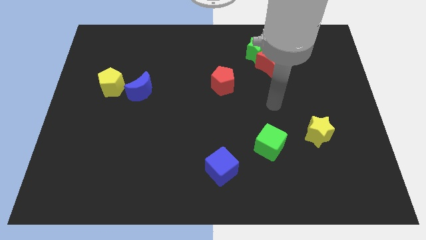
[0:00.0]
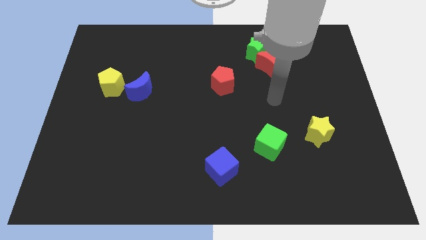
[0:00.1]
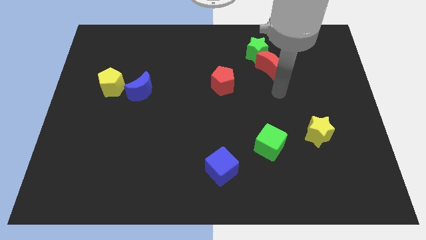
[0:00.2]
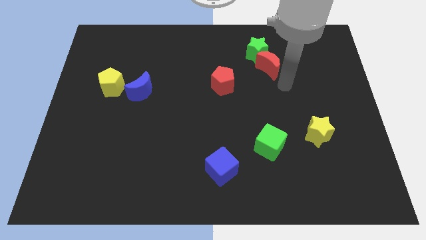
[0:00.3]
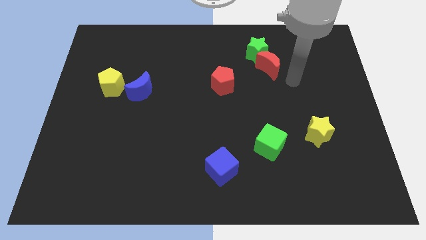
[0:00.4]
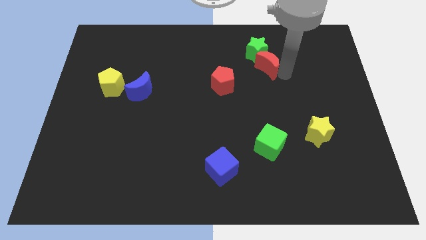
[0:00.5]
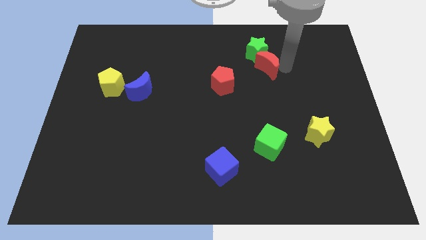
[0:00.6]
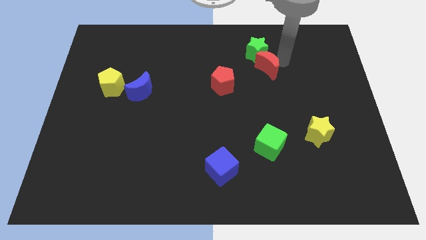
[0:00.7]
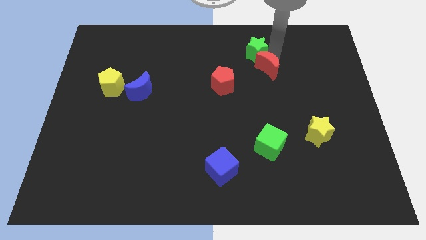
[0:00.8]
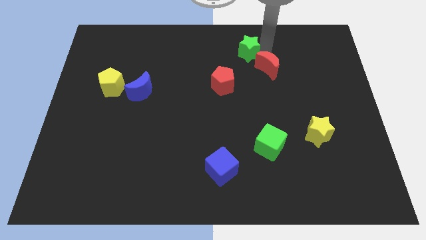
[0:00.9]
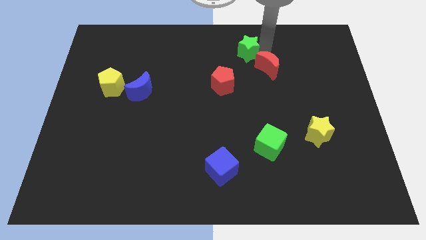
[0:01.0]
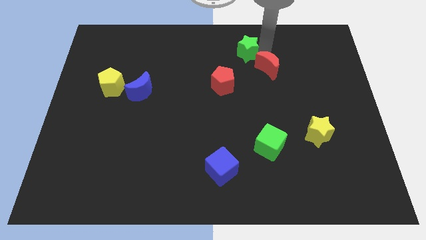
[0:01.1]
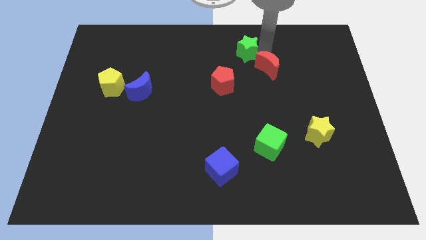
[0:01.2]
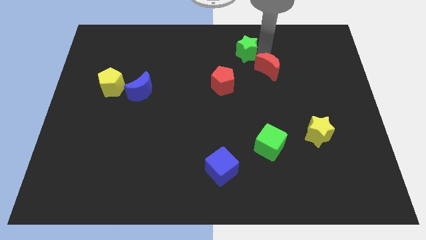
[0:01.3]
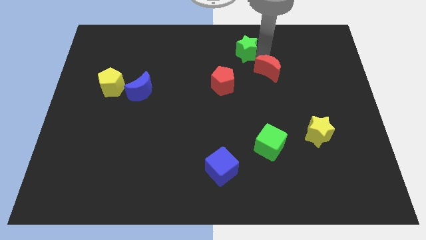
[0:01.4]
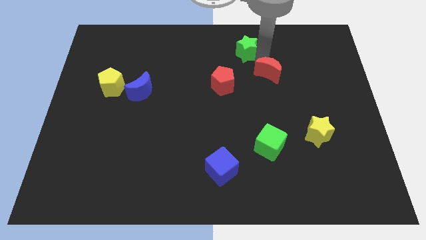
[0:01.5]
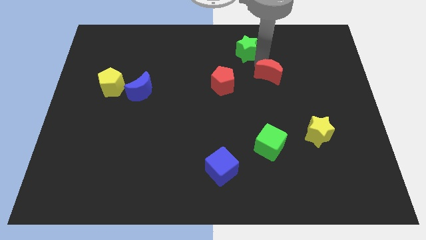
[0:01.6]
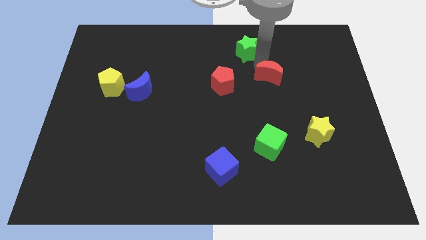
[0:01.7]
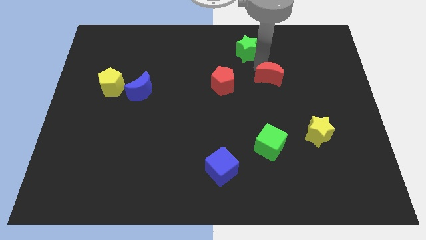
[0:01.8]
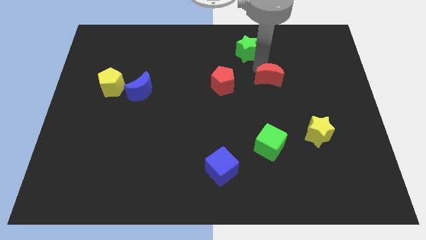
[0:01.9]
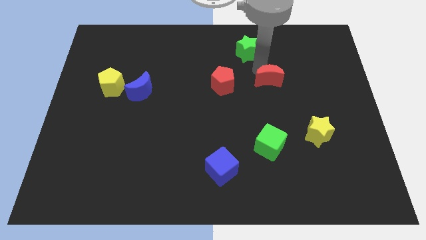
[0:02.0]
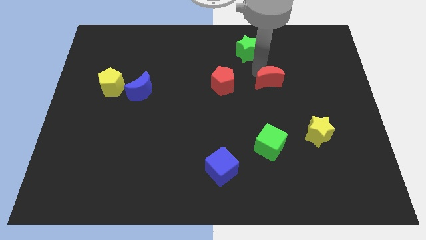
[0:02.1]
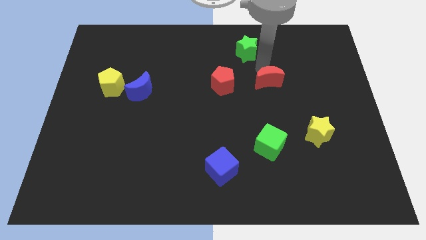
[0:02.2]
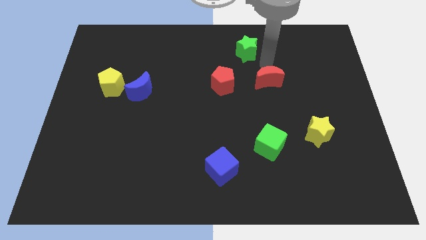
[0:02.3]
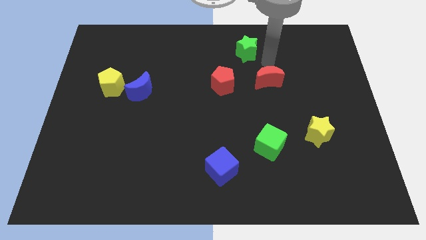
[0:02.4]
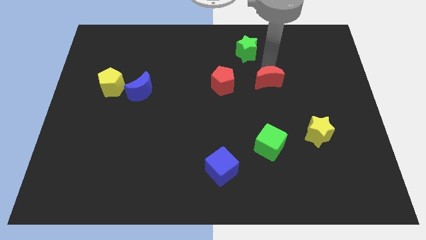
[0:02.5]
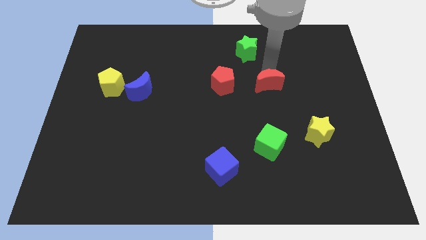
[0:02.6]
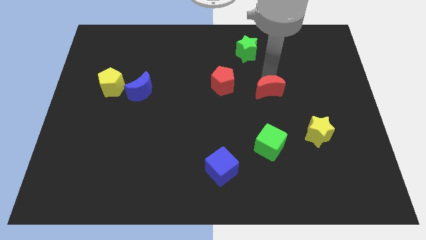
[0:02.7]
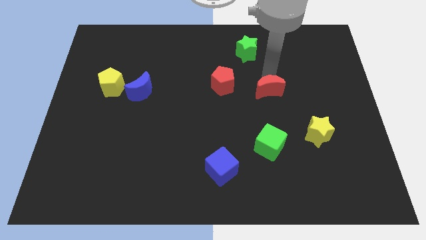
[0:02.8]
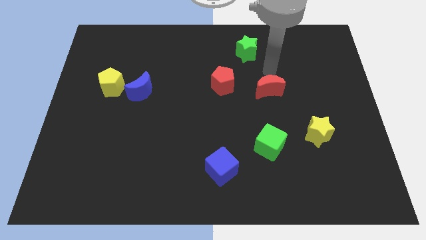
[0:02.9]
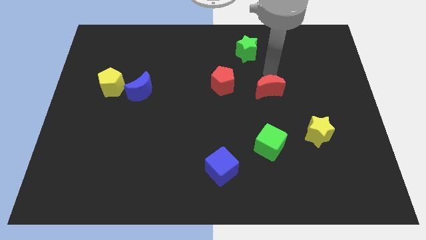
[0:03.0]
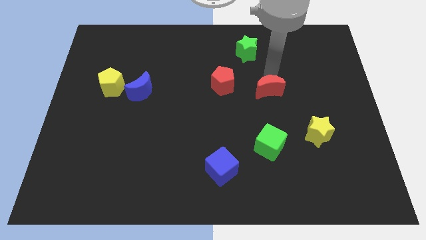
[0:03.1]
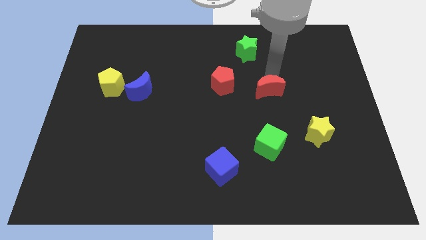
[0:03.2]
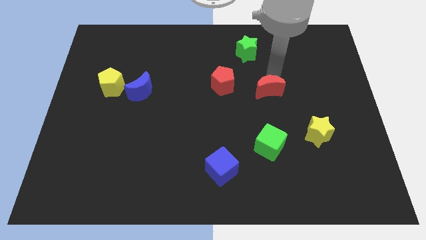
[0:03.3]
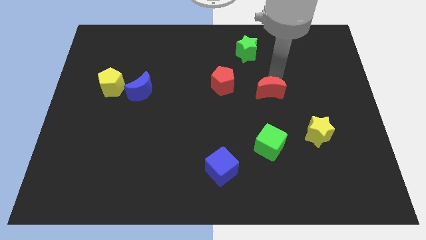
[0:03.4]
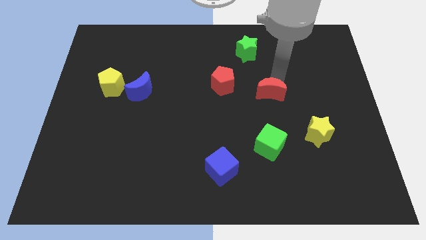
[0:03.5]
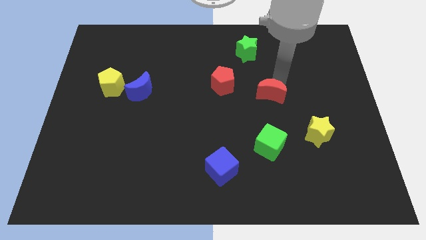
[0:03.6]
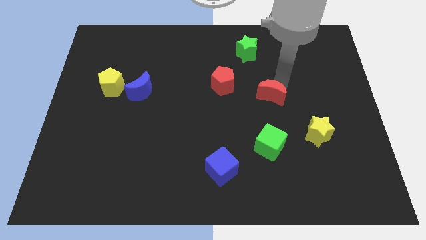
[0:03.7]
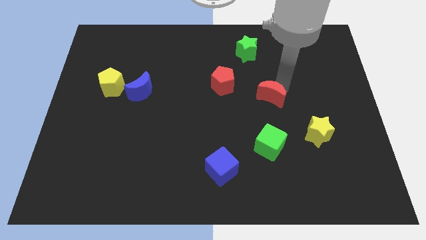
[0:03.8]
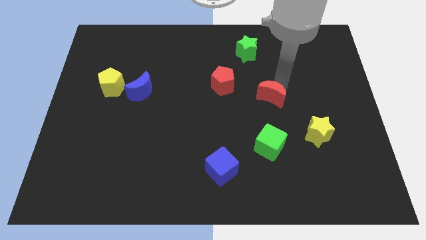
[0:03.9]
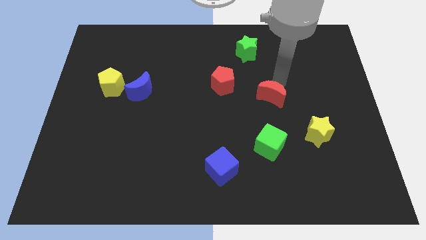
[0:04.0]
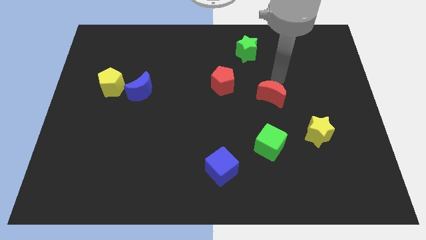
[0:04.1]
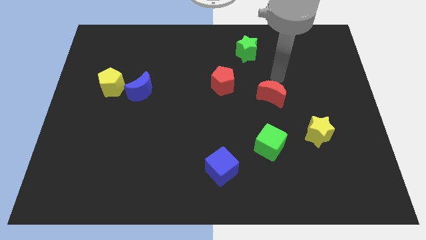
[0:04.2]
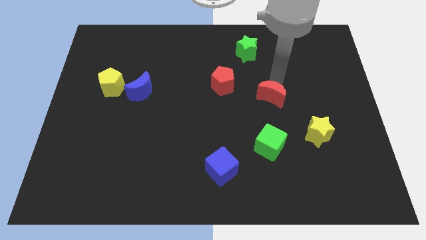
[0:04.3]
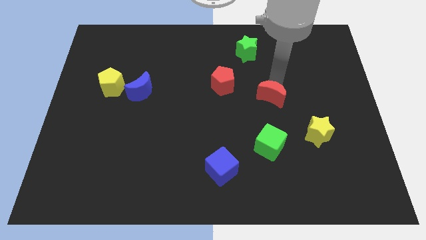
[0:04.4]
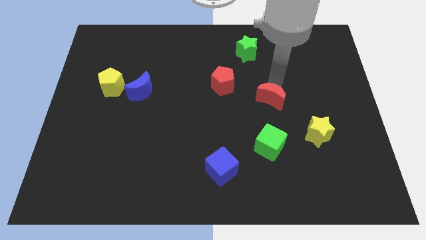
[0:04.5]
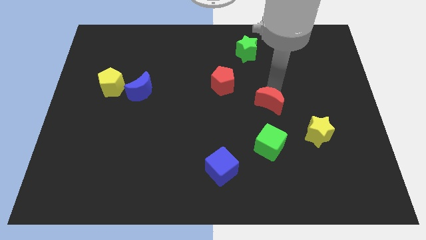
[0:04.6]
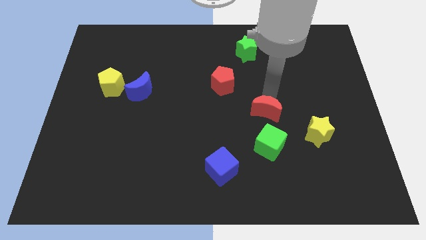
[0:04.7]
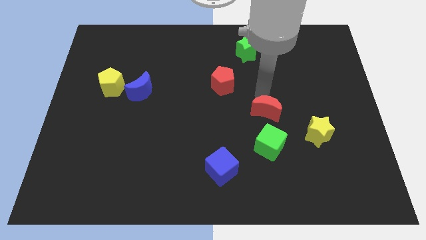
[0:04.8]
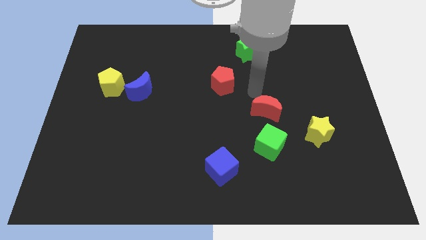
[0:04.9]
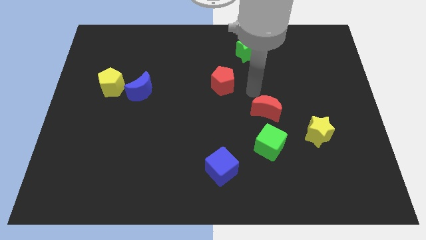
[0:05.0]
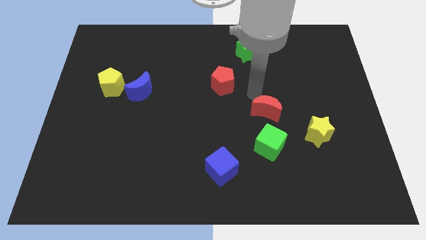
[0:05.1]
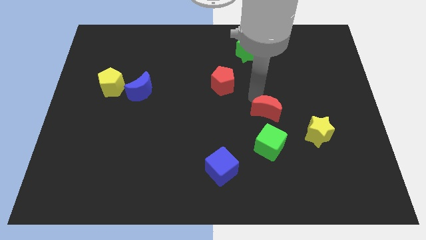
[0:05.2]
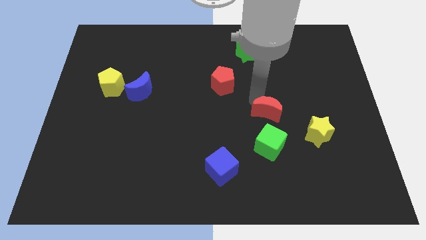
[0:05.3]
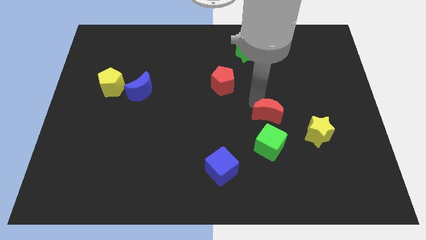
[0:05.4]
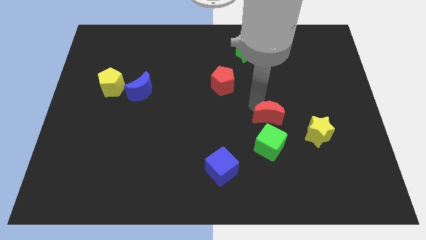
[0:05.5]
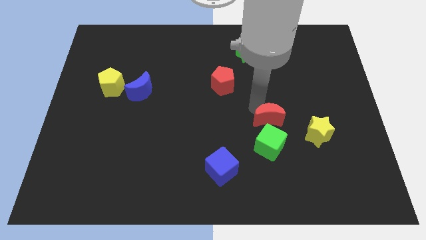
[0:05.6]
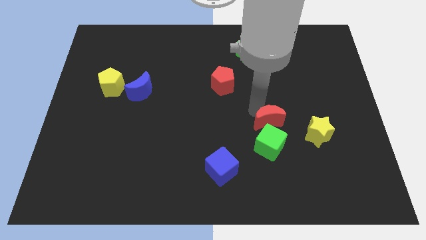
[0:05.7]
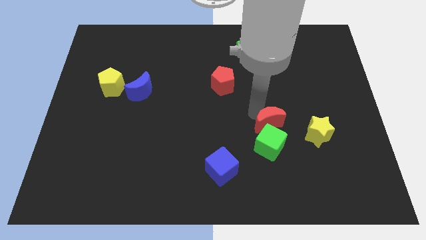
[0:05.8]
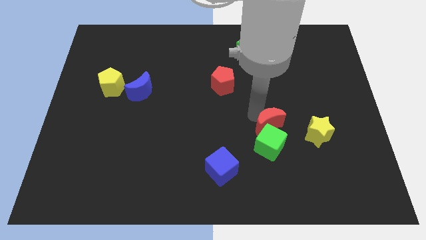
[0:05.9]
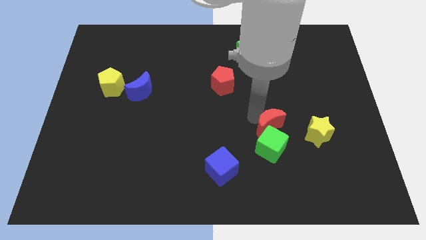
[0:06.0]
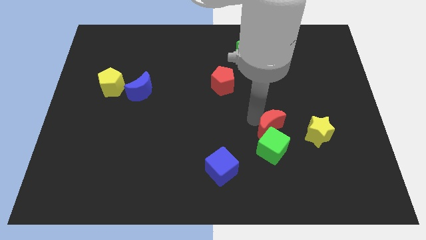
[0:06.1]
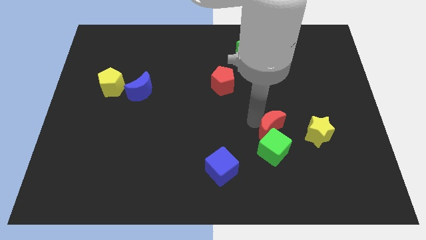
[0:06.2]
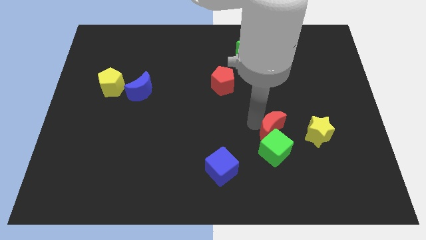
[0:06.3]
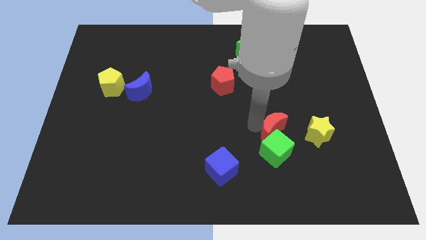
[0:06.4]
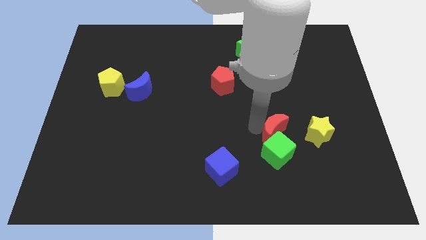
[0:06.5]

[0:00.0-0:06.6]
move the red moon downwards

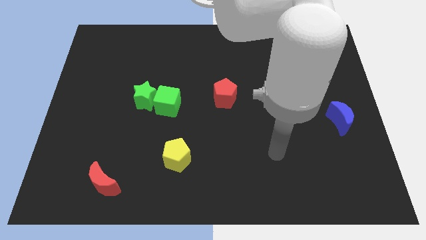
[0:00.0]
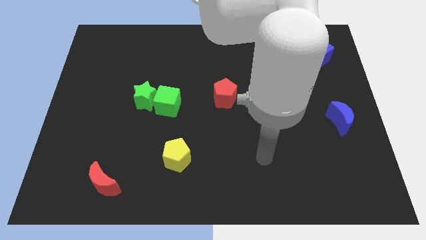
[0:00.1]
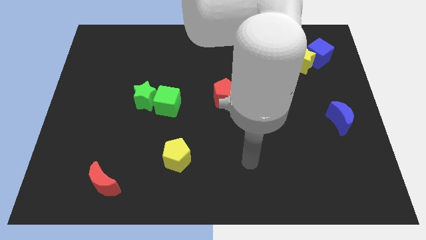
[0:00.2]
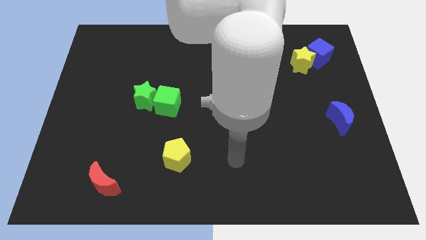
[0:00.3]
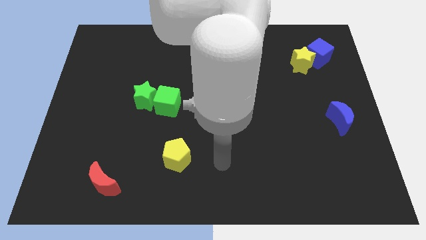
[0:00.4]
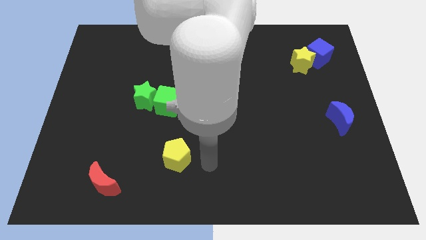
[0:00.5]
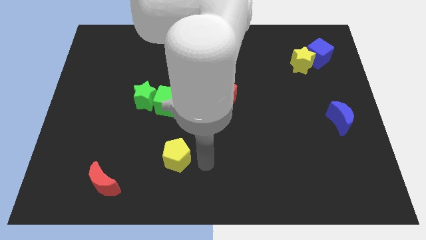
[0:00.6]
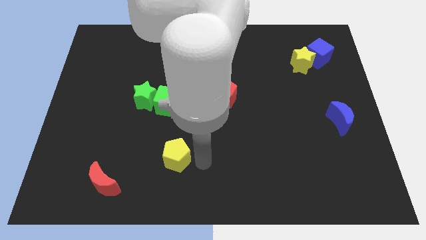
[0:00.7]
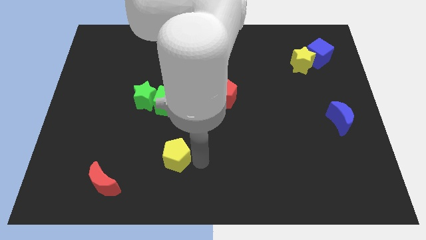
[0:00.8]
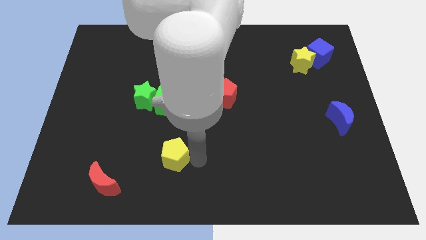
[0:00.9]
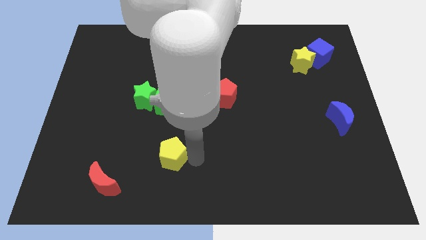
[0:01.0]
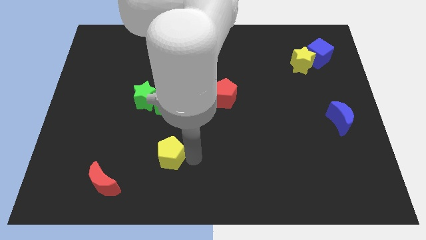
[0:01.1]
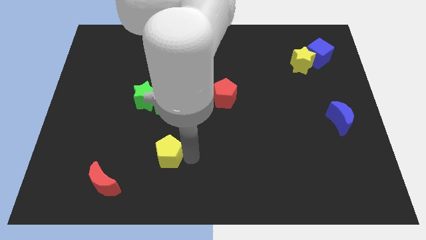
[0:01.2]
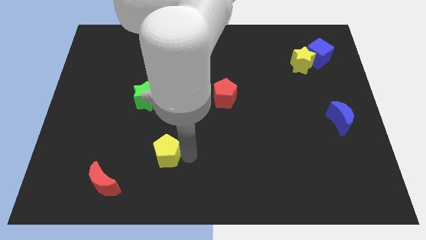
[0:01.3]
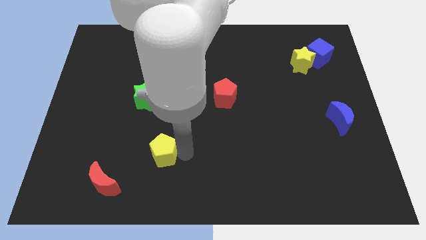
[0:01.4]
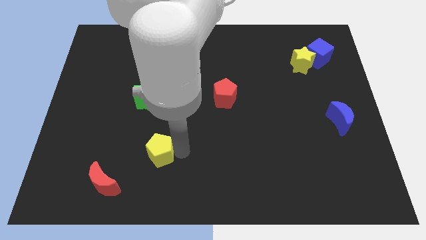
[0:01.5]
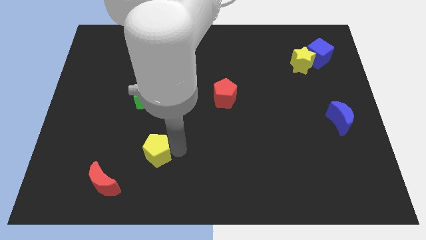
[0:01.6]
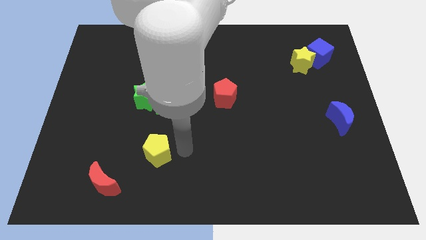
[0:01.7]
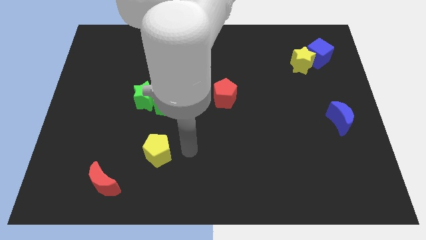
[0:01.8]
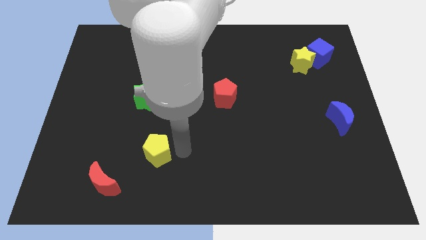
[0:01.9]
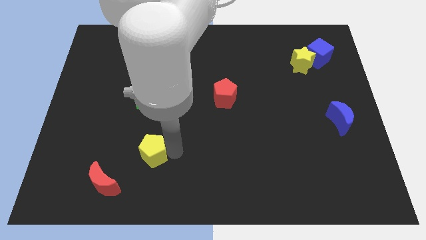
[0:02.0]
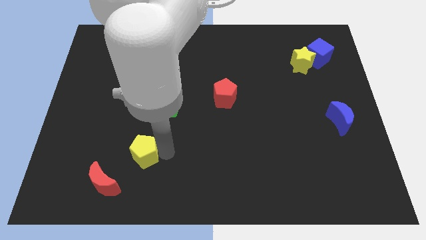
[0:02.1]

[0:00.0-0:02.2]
slide the yellow pentagon to the left a little
